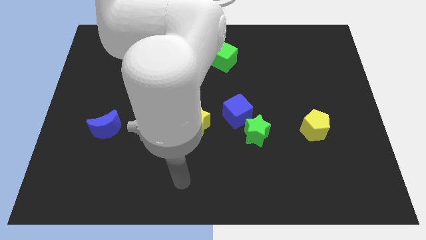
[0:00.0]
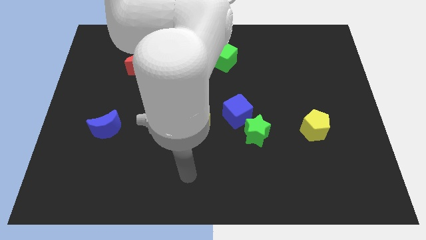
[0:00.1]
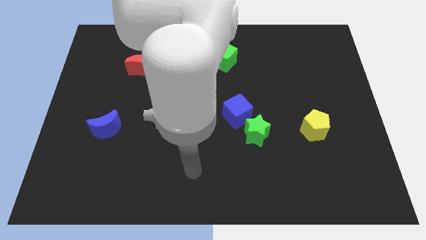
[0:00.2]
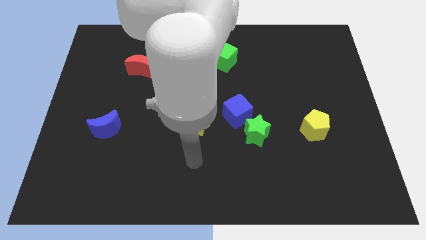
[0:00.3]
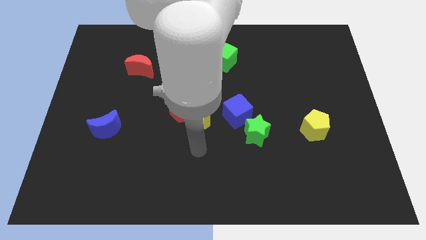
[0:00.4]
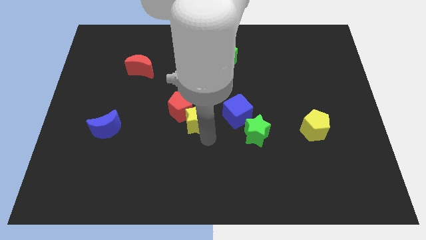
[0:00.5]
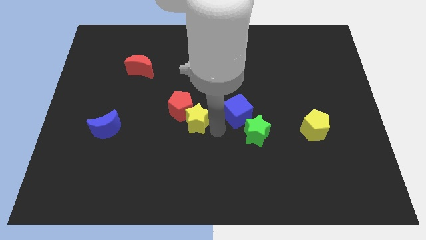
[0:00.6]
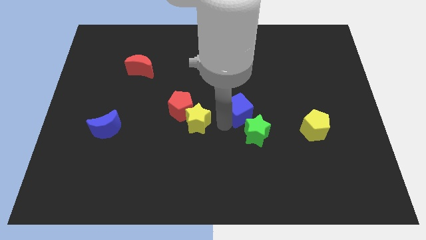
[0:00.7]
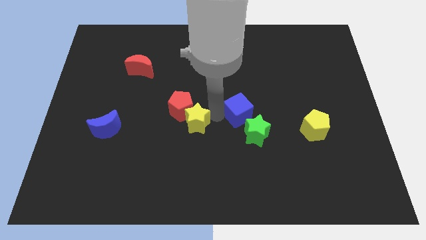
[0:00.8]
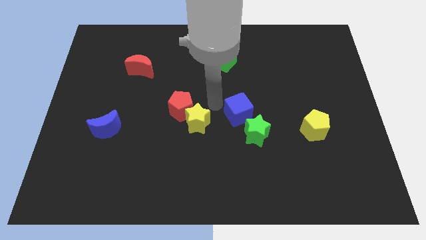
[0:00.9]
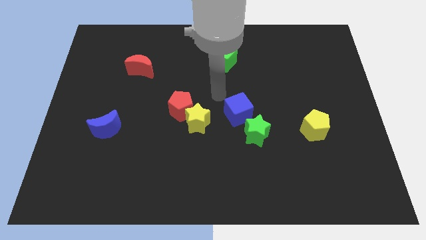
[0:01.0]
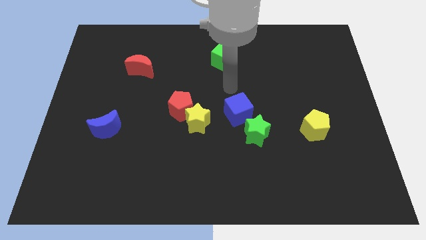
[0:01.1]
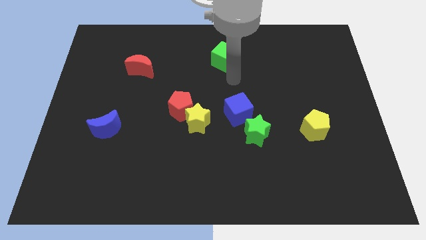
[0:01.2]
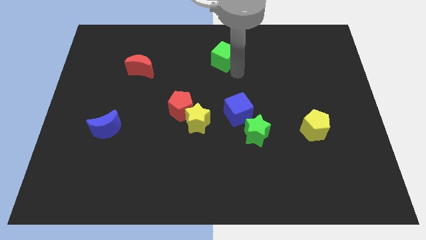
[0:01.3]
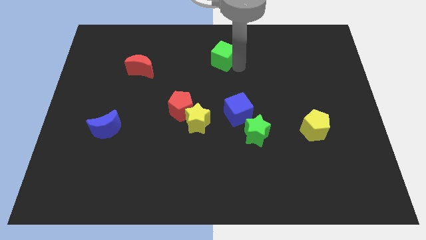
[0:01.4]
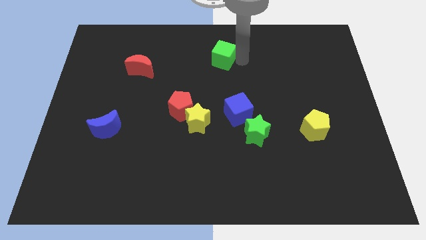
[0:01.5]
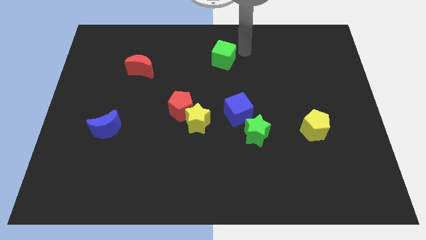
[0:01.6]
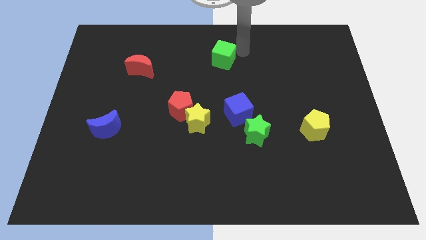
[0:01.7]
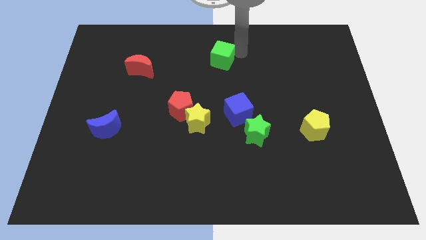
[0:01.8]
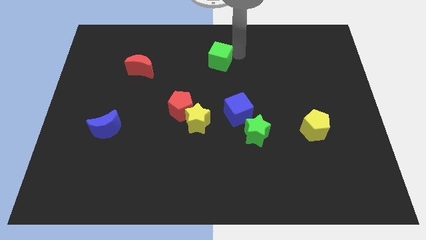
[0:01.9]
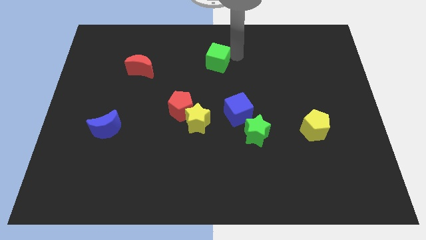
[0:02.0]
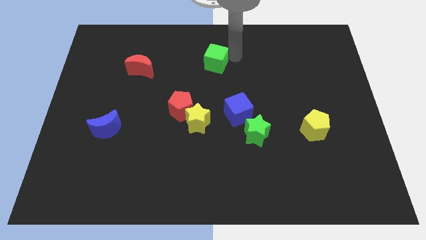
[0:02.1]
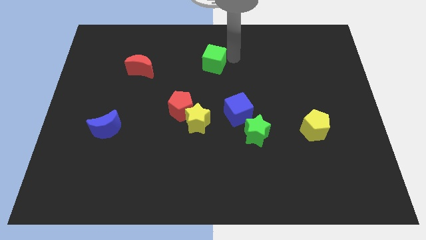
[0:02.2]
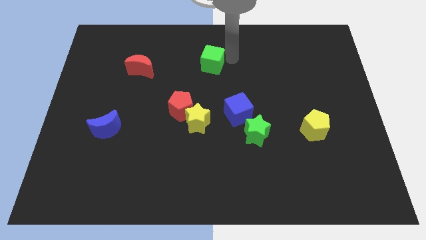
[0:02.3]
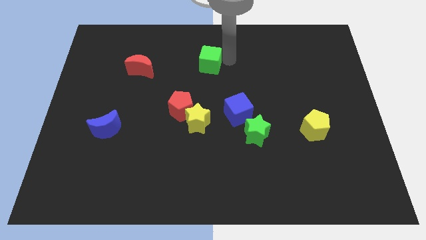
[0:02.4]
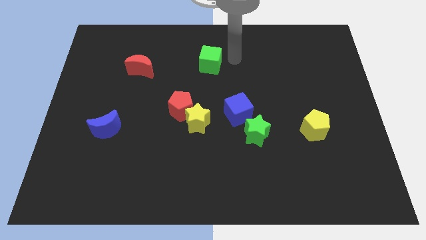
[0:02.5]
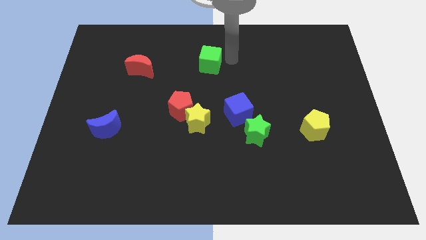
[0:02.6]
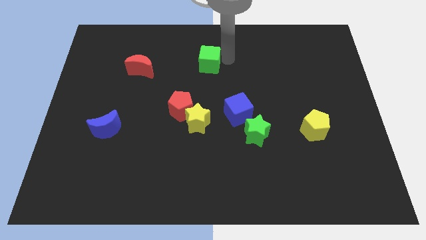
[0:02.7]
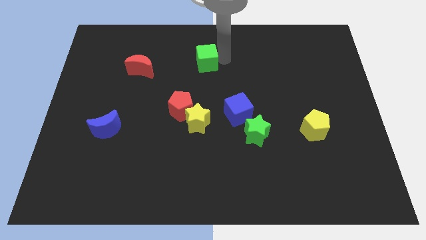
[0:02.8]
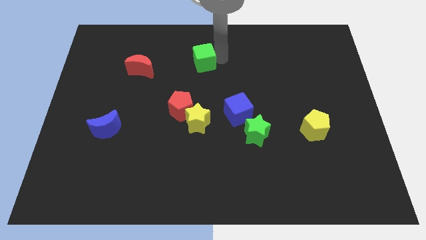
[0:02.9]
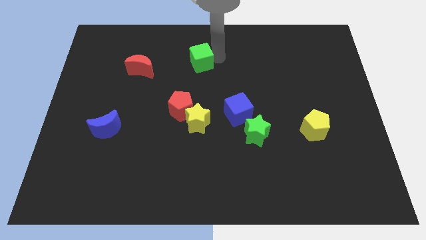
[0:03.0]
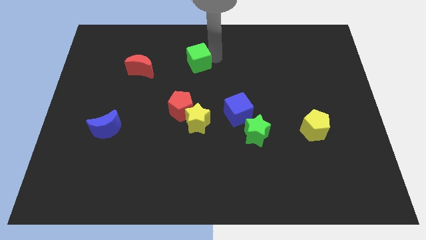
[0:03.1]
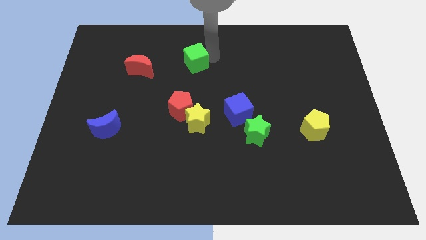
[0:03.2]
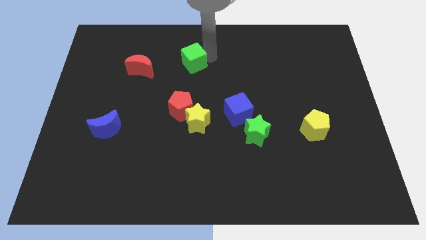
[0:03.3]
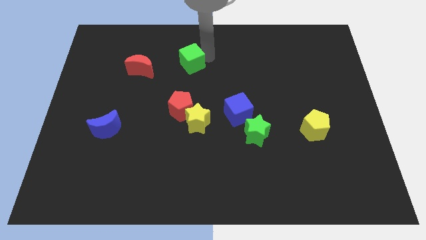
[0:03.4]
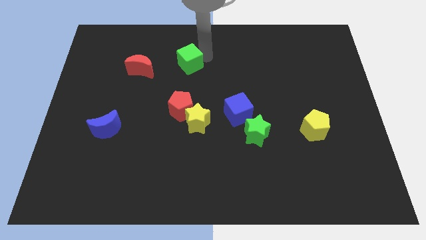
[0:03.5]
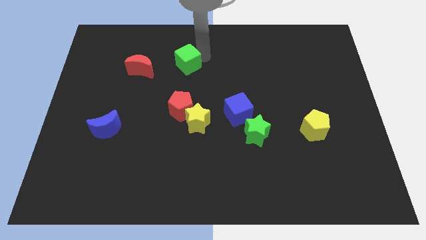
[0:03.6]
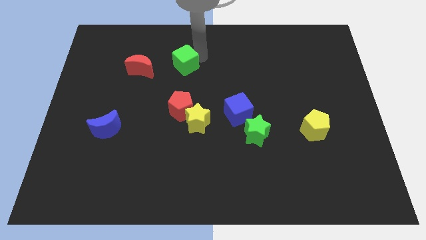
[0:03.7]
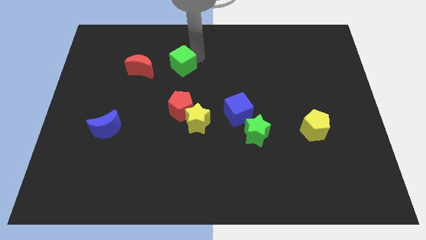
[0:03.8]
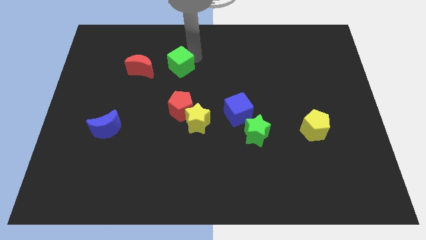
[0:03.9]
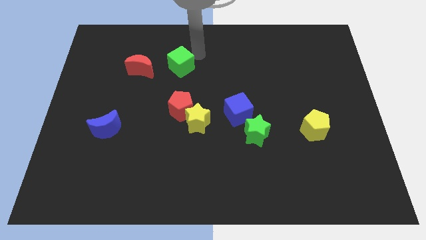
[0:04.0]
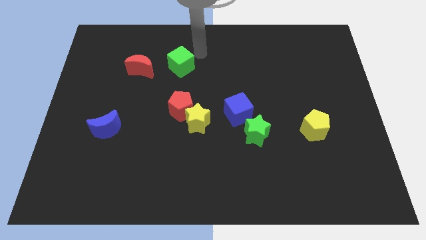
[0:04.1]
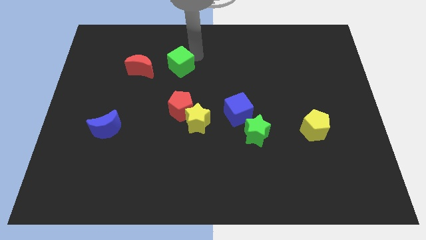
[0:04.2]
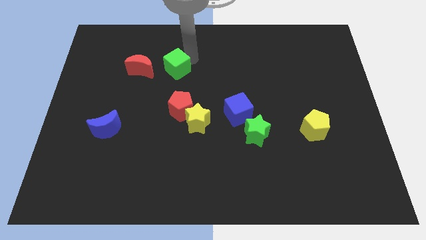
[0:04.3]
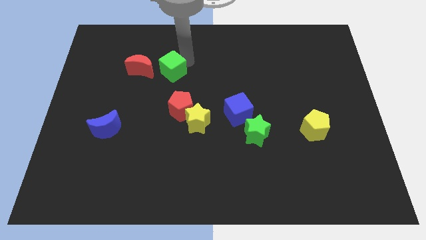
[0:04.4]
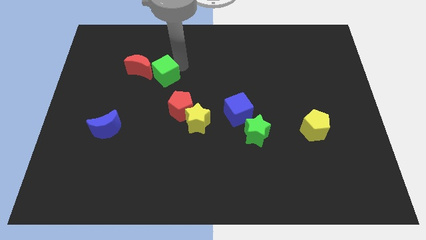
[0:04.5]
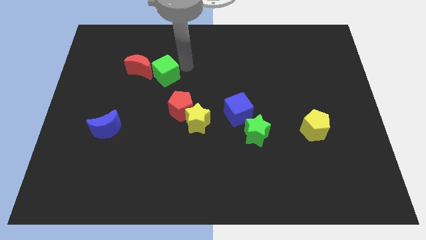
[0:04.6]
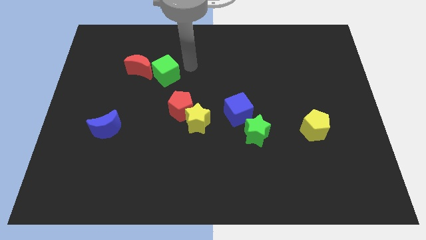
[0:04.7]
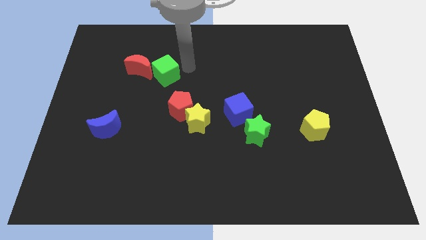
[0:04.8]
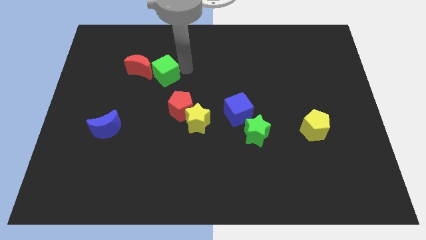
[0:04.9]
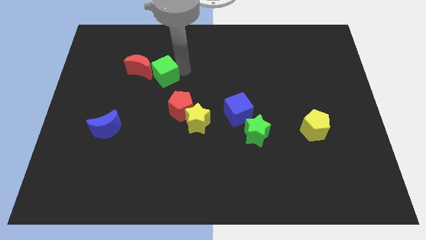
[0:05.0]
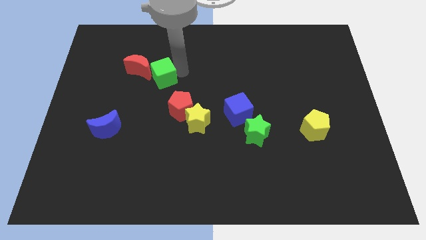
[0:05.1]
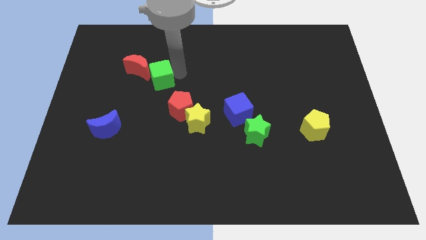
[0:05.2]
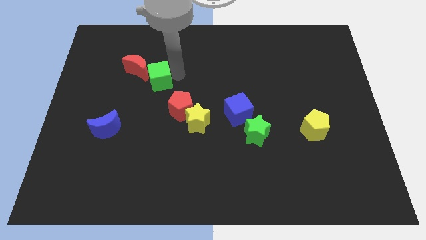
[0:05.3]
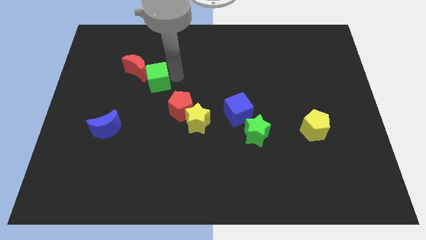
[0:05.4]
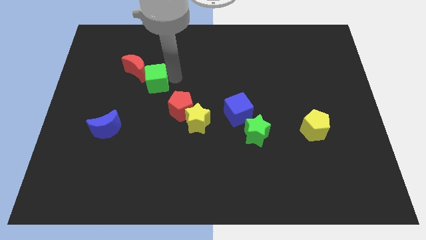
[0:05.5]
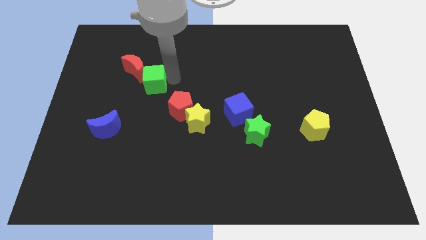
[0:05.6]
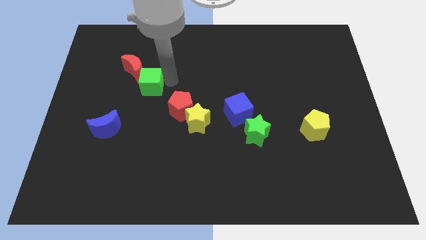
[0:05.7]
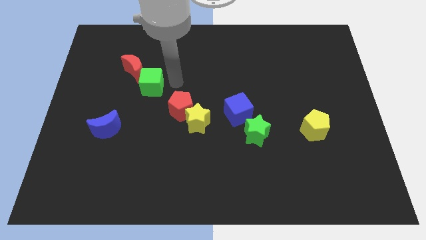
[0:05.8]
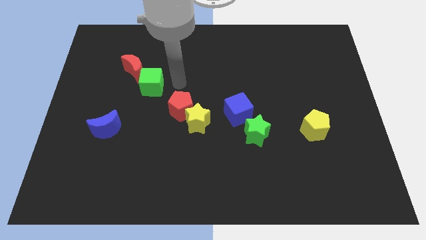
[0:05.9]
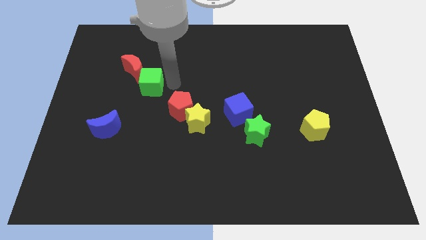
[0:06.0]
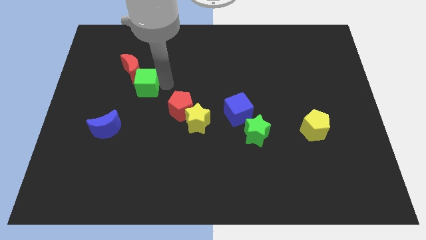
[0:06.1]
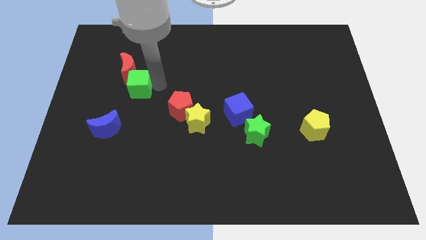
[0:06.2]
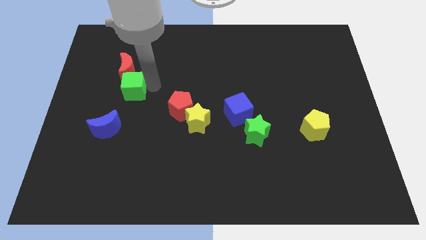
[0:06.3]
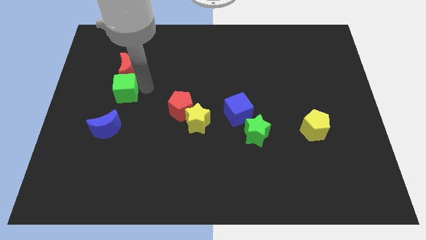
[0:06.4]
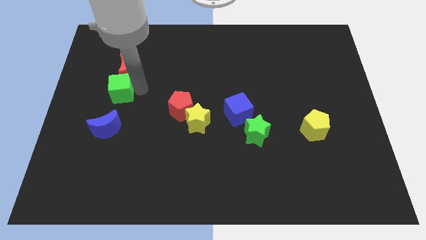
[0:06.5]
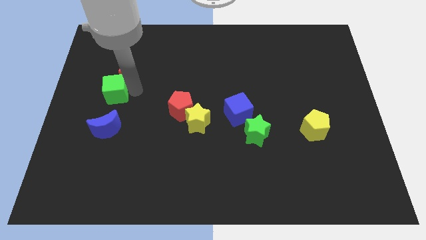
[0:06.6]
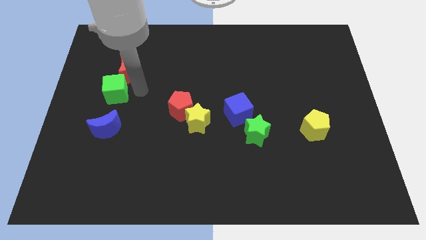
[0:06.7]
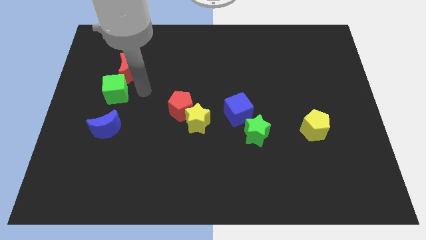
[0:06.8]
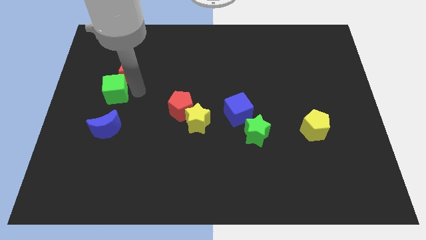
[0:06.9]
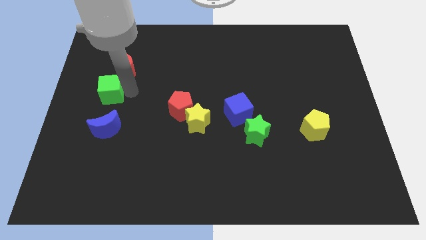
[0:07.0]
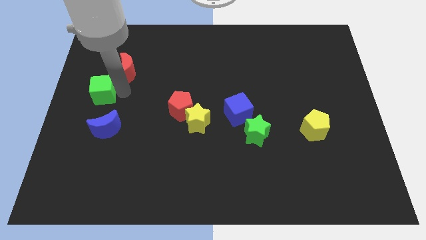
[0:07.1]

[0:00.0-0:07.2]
push the green cube to the center left
